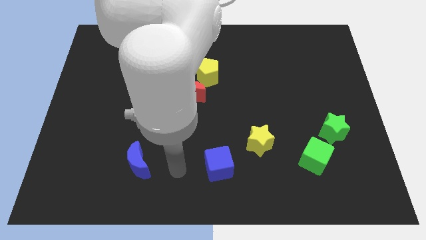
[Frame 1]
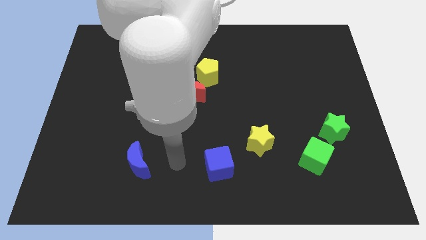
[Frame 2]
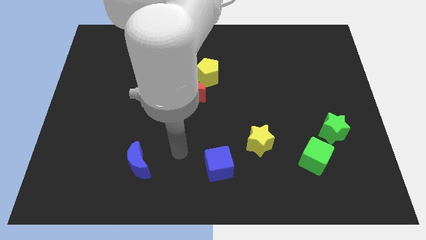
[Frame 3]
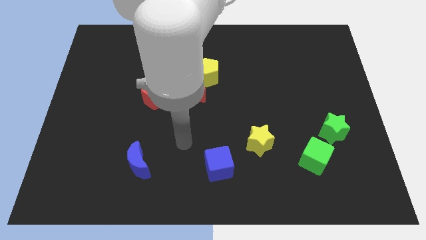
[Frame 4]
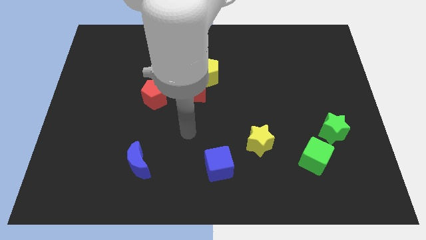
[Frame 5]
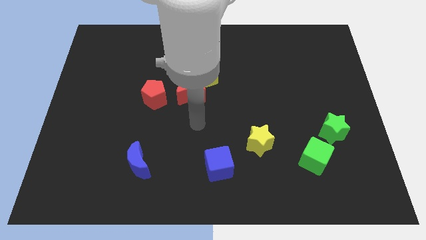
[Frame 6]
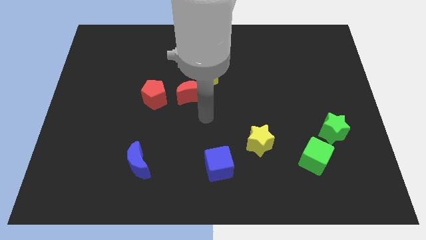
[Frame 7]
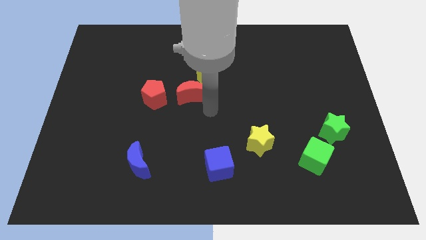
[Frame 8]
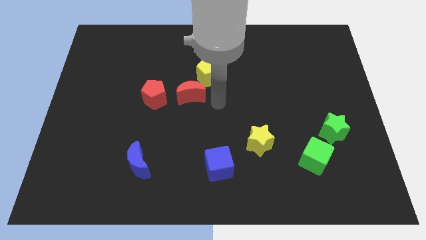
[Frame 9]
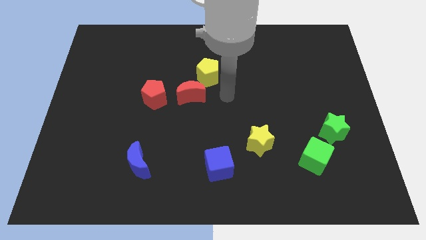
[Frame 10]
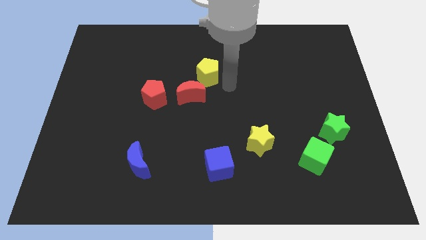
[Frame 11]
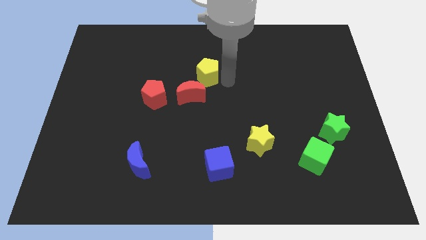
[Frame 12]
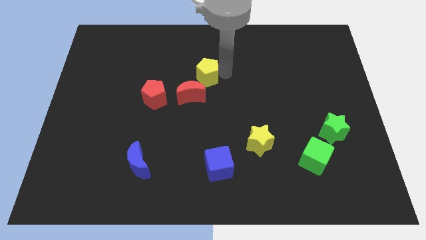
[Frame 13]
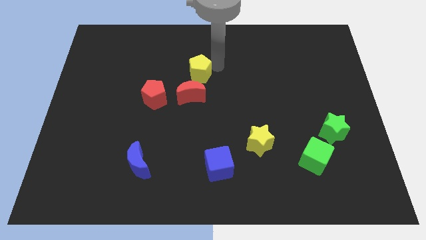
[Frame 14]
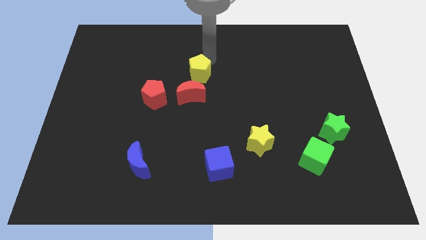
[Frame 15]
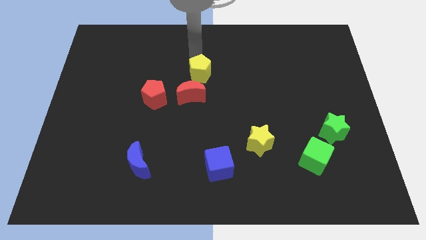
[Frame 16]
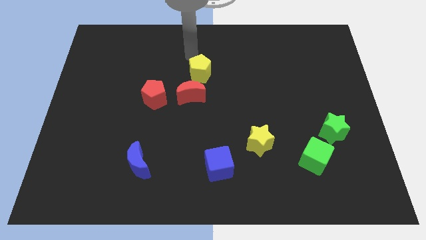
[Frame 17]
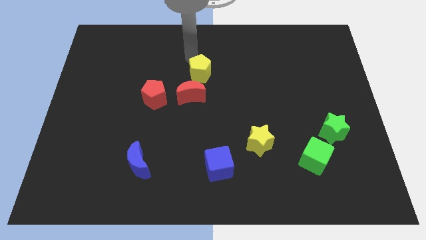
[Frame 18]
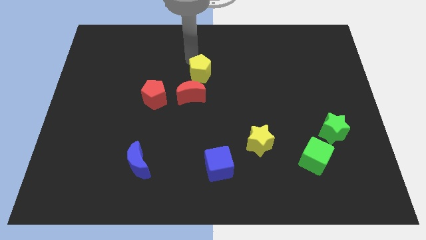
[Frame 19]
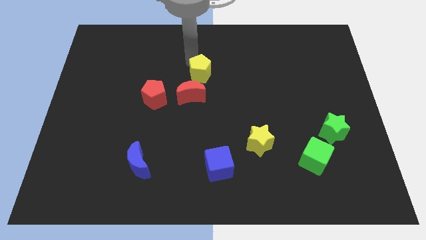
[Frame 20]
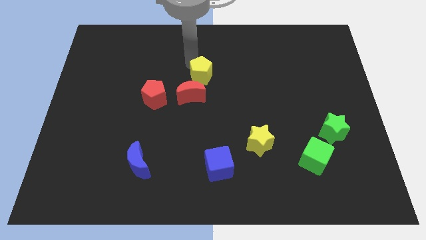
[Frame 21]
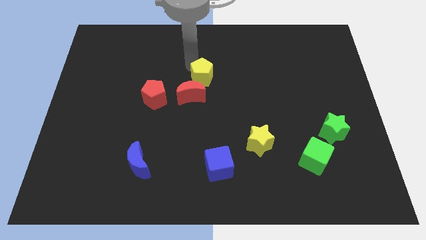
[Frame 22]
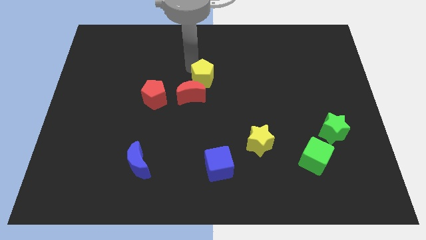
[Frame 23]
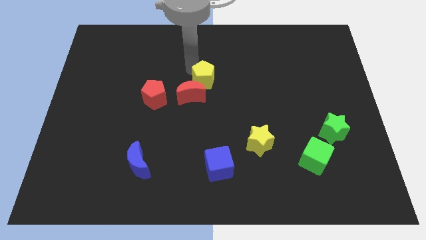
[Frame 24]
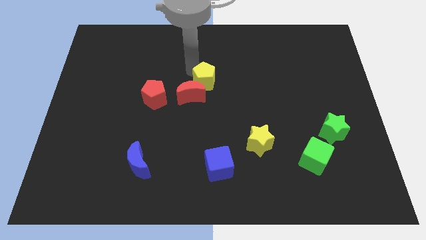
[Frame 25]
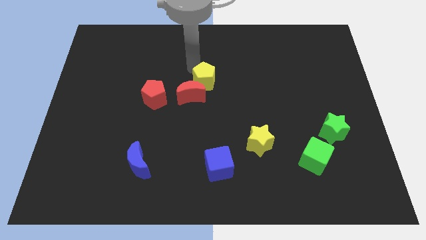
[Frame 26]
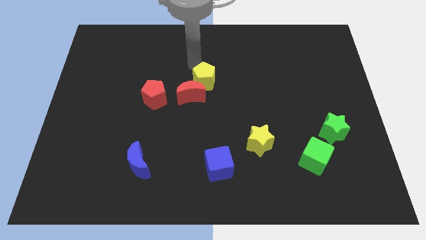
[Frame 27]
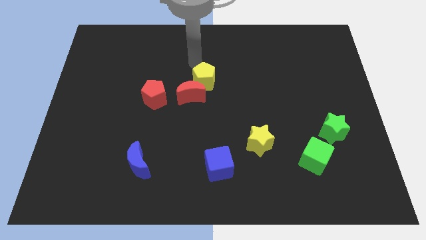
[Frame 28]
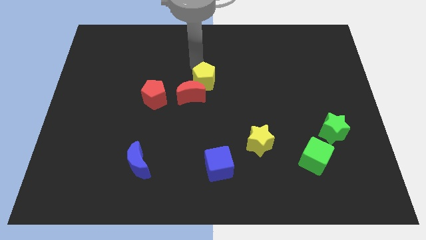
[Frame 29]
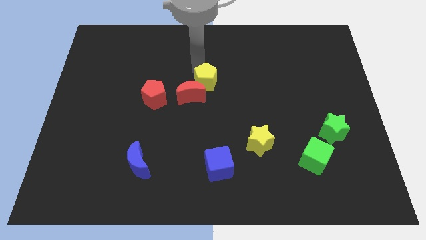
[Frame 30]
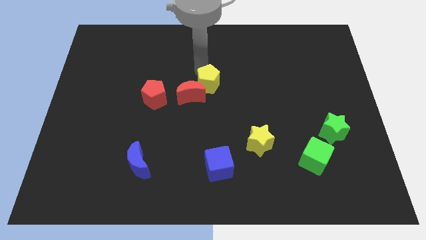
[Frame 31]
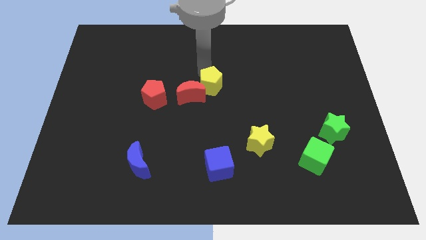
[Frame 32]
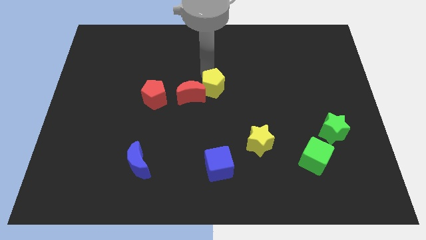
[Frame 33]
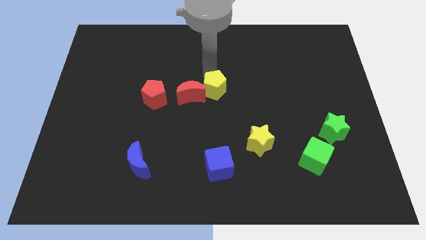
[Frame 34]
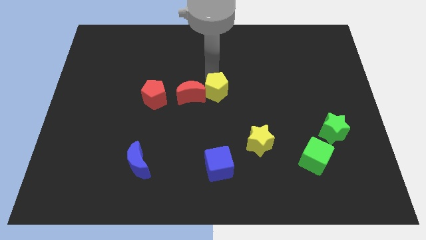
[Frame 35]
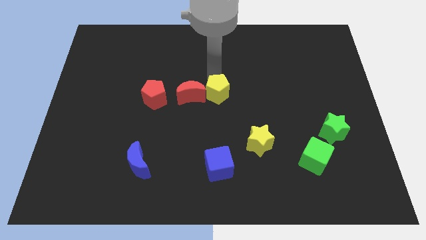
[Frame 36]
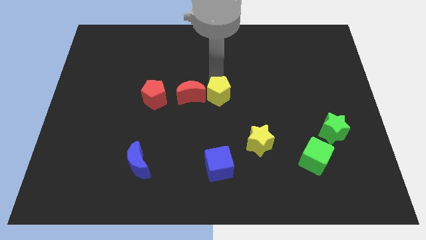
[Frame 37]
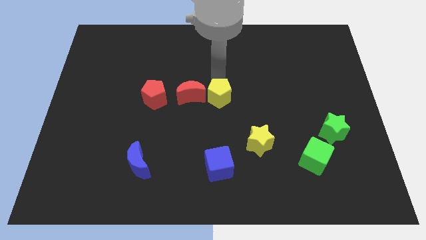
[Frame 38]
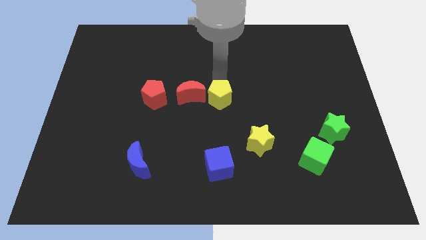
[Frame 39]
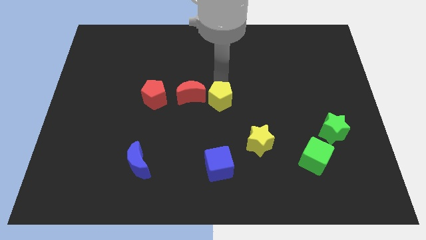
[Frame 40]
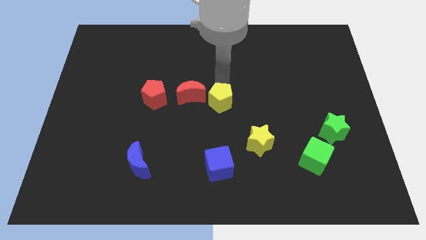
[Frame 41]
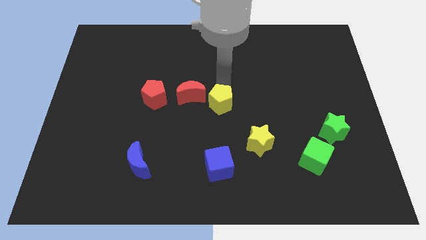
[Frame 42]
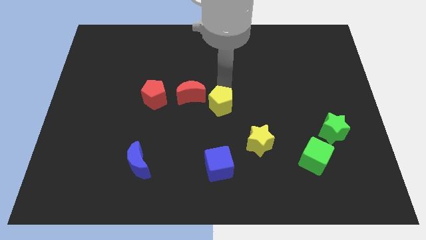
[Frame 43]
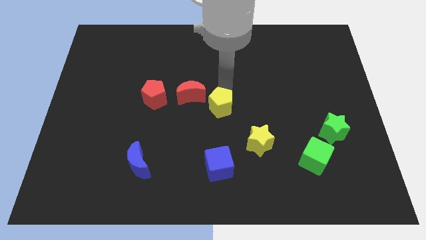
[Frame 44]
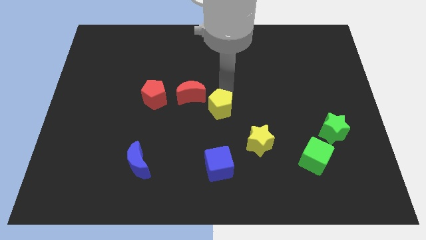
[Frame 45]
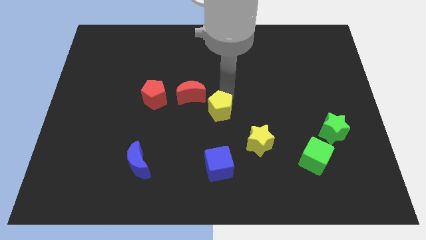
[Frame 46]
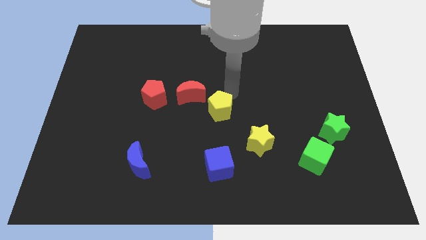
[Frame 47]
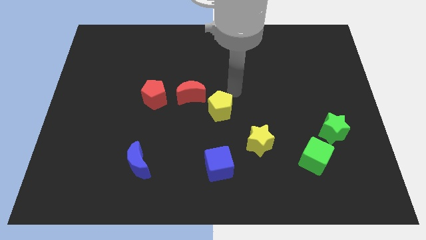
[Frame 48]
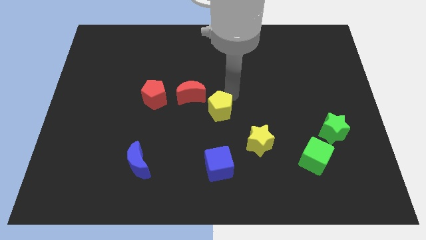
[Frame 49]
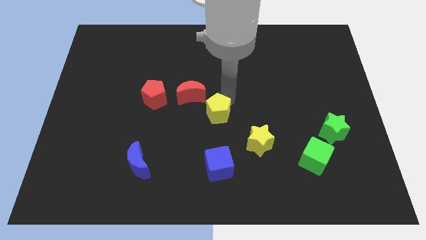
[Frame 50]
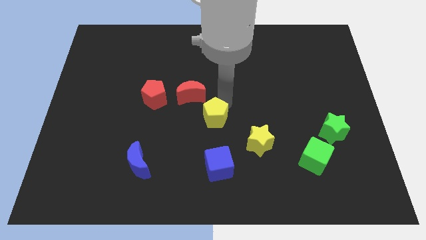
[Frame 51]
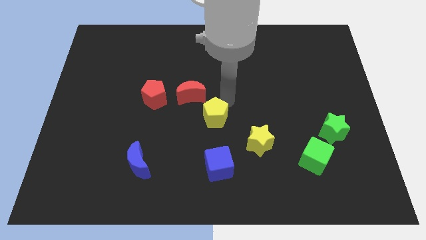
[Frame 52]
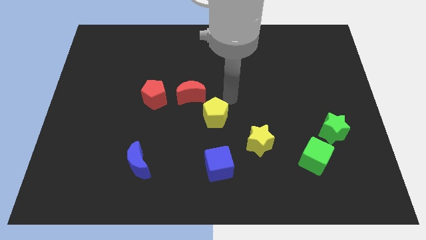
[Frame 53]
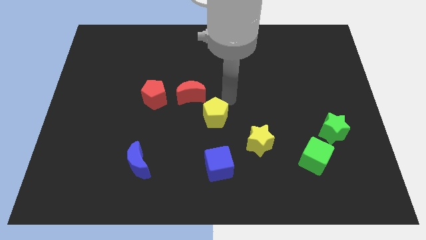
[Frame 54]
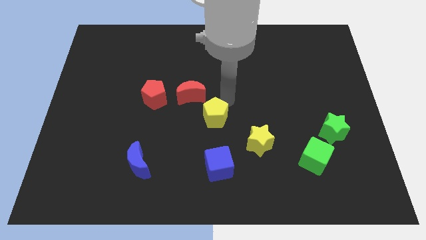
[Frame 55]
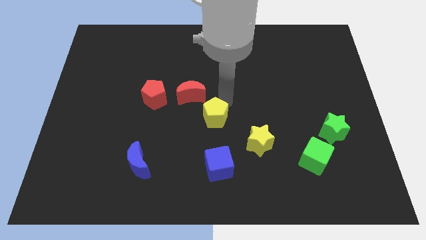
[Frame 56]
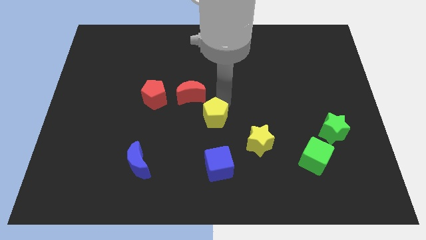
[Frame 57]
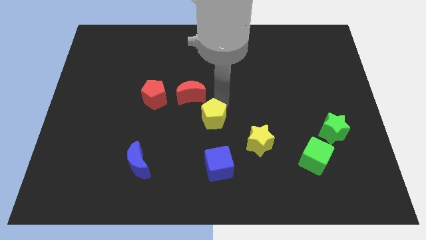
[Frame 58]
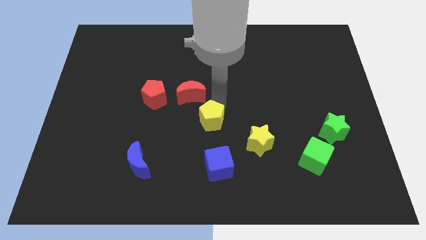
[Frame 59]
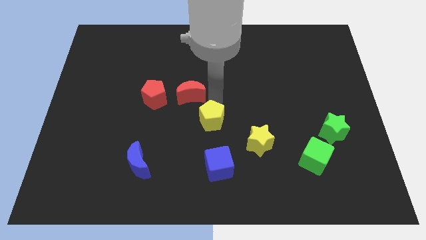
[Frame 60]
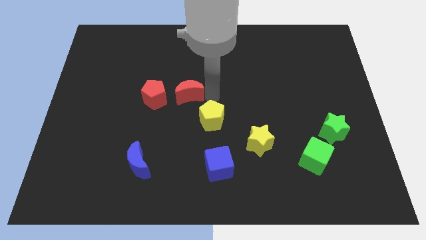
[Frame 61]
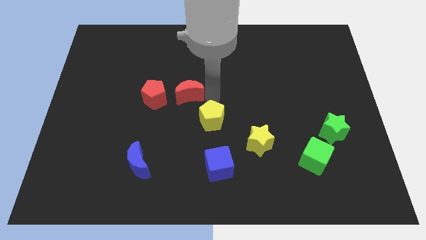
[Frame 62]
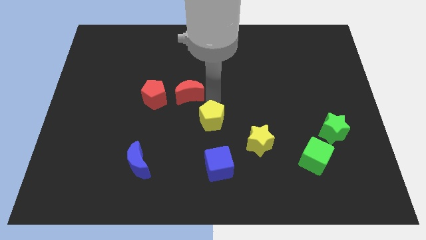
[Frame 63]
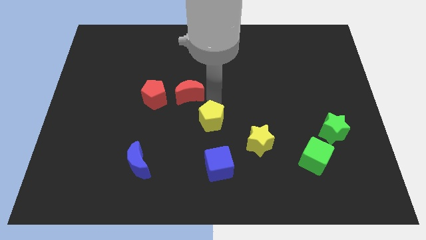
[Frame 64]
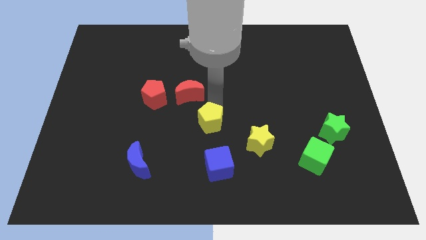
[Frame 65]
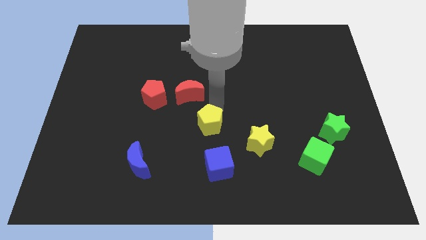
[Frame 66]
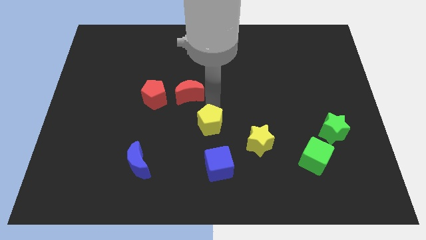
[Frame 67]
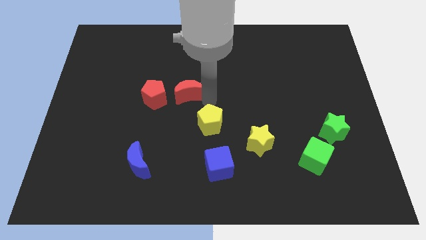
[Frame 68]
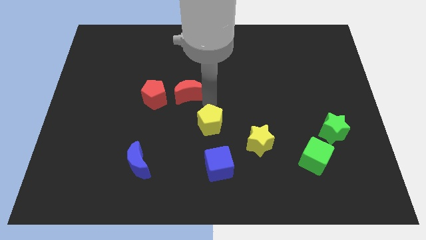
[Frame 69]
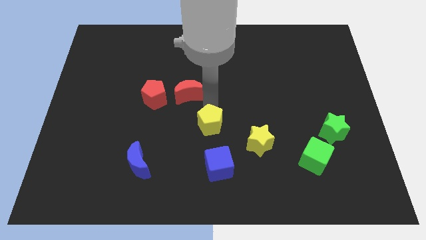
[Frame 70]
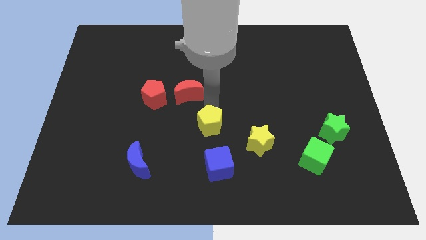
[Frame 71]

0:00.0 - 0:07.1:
slide the yellow pentagon just left of the yellow star
